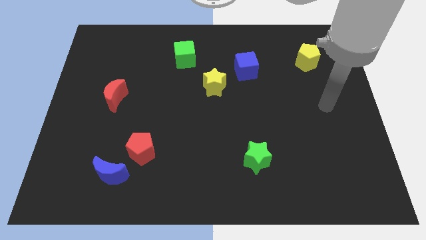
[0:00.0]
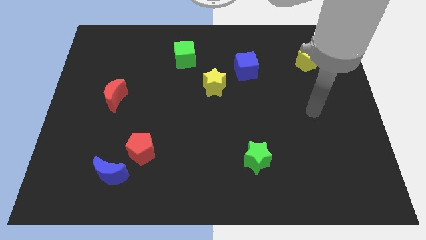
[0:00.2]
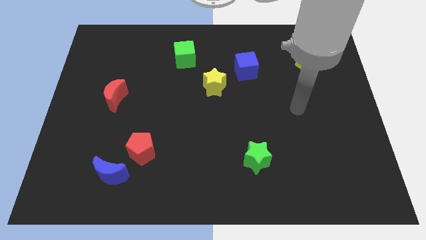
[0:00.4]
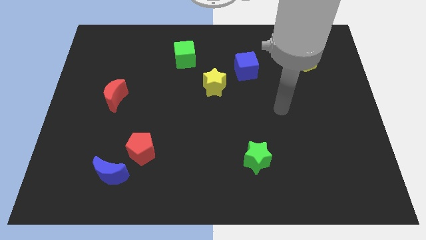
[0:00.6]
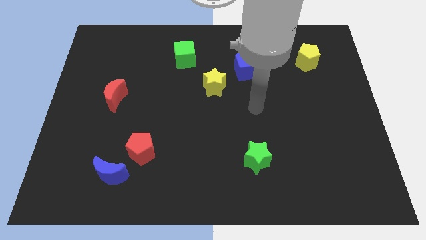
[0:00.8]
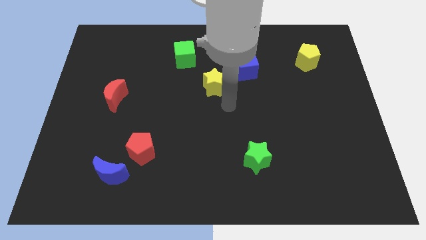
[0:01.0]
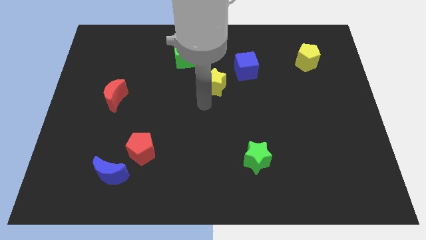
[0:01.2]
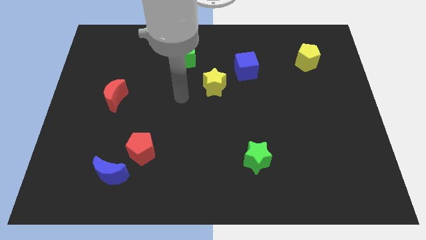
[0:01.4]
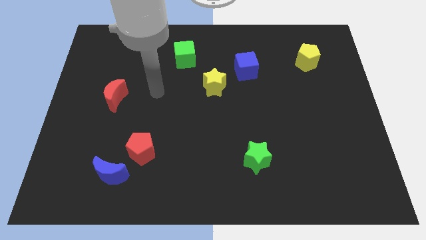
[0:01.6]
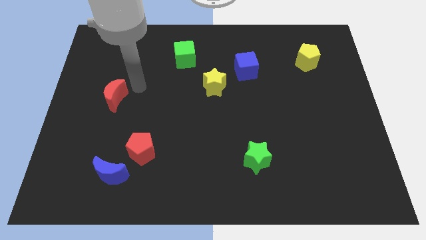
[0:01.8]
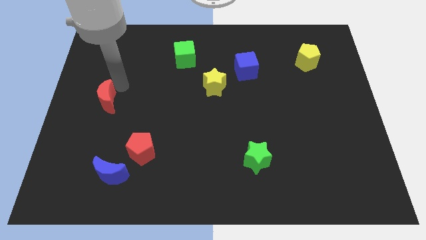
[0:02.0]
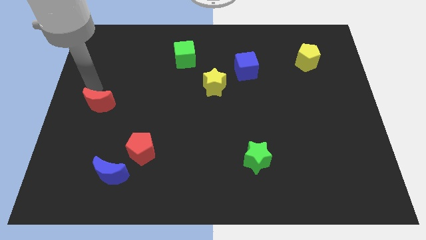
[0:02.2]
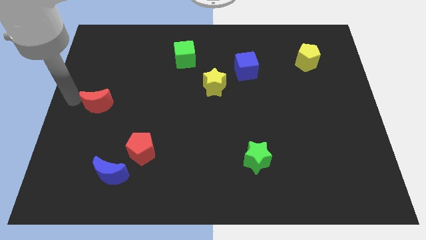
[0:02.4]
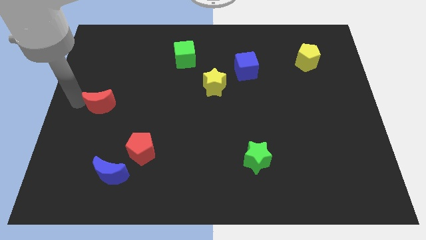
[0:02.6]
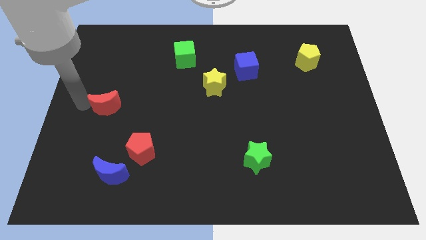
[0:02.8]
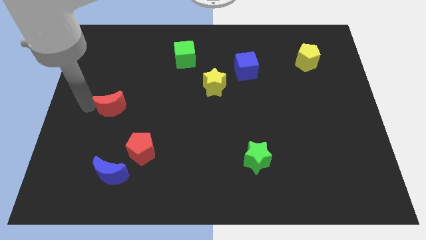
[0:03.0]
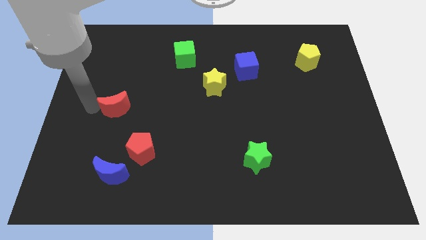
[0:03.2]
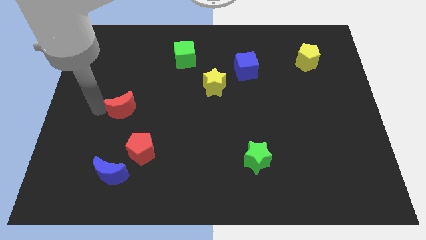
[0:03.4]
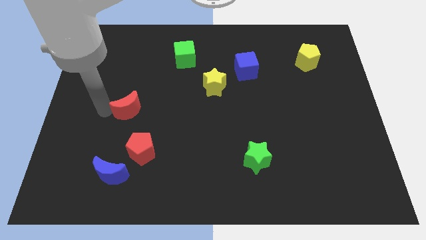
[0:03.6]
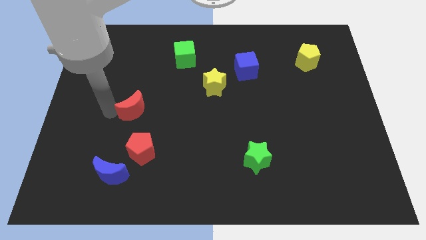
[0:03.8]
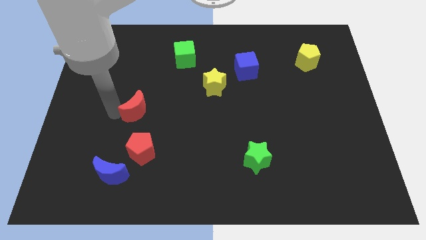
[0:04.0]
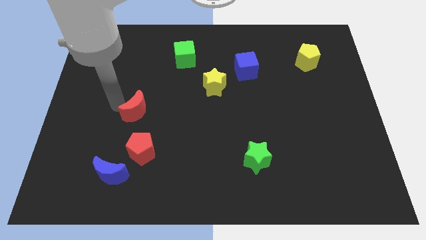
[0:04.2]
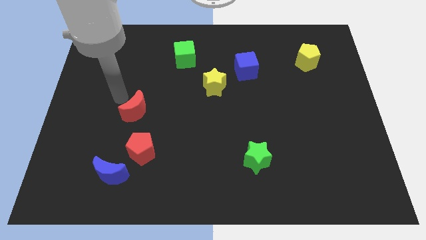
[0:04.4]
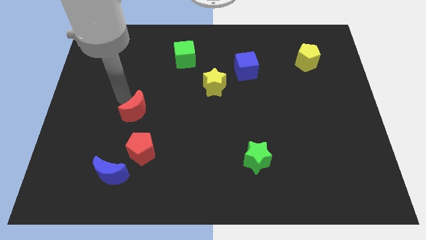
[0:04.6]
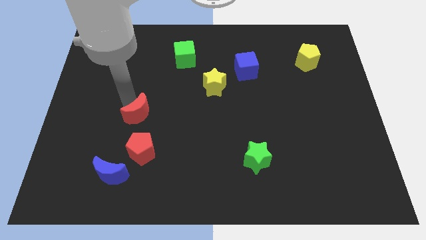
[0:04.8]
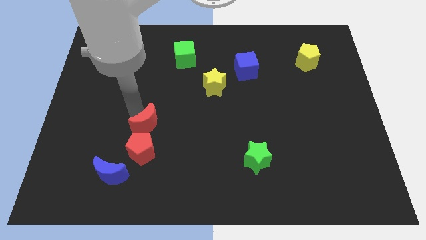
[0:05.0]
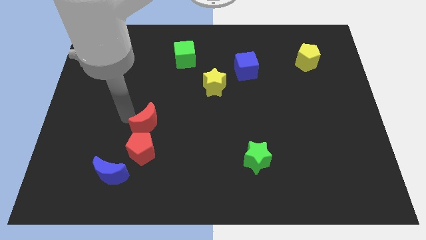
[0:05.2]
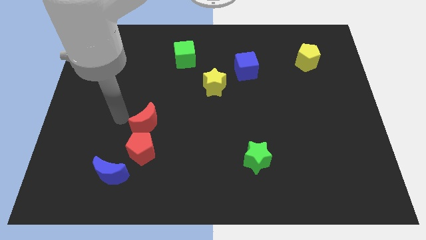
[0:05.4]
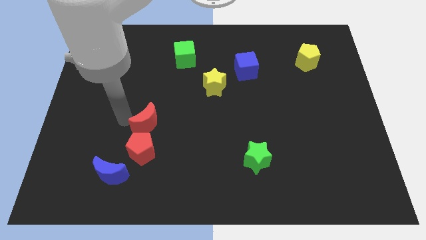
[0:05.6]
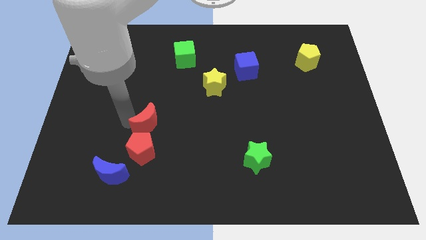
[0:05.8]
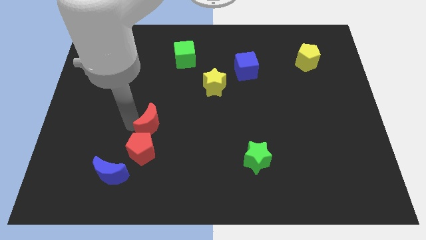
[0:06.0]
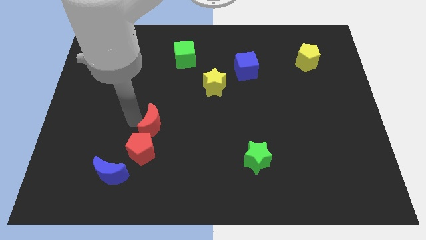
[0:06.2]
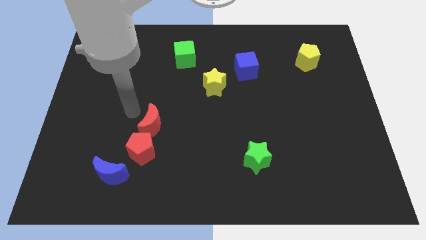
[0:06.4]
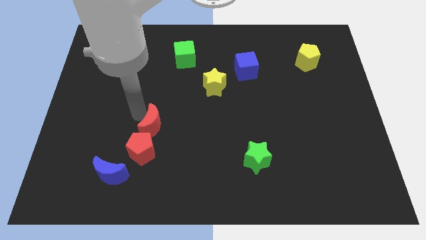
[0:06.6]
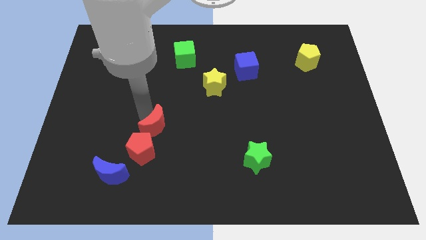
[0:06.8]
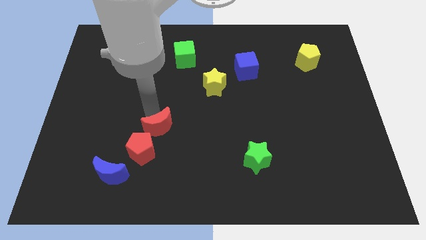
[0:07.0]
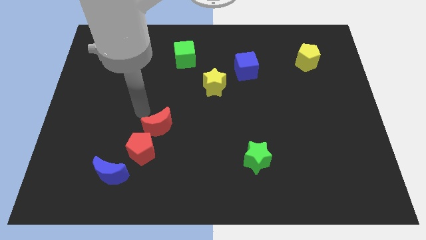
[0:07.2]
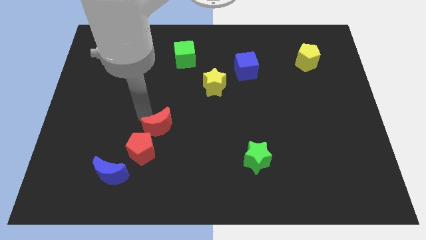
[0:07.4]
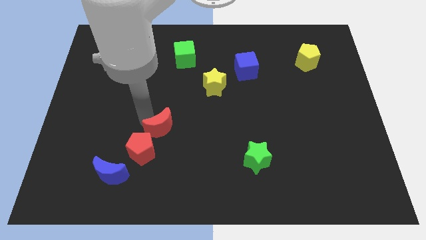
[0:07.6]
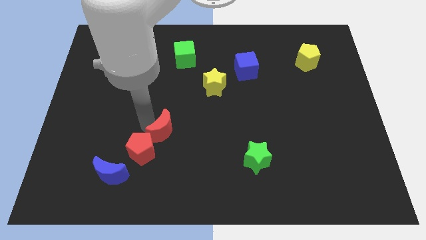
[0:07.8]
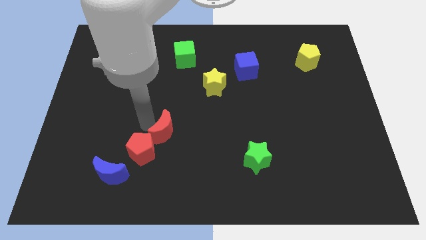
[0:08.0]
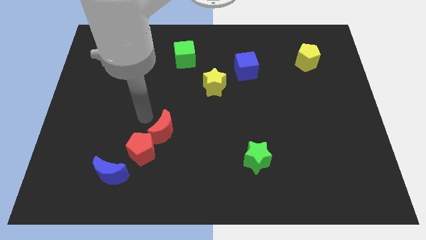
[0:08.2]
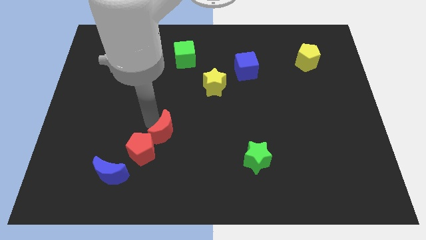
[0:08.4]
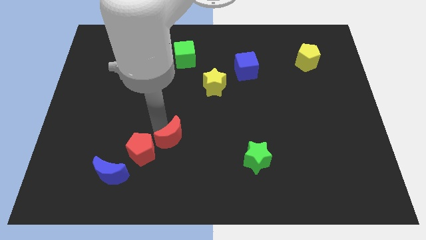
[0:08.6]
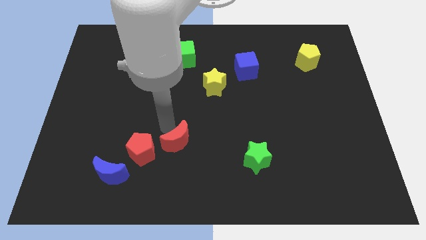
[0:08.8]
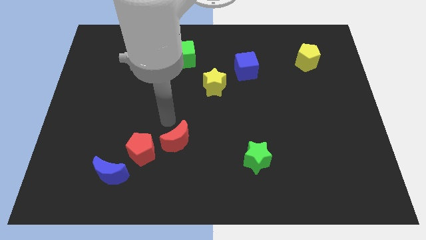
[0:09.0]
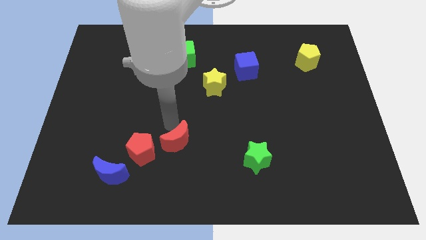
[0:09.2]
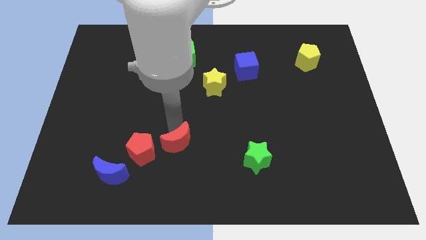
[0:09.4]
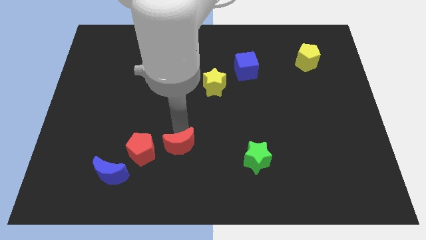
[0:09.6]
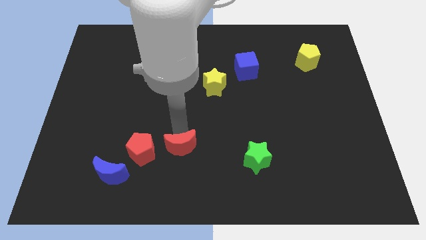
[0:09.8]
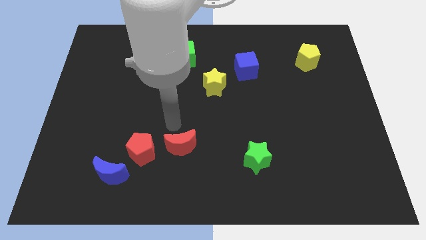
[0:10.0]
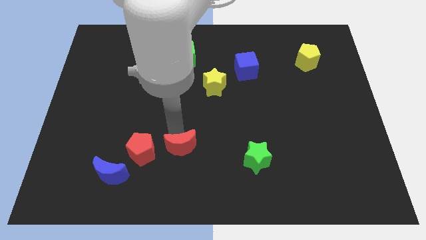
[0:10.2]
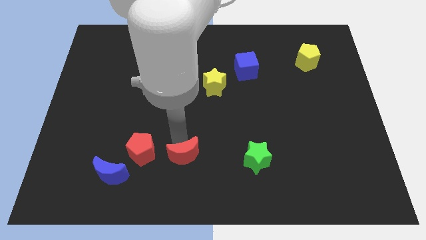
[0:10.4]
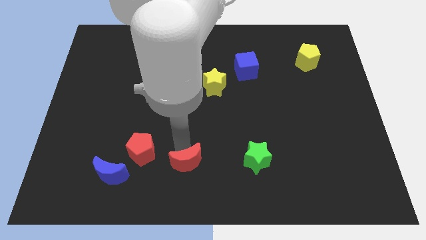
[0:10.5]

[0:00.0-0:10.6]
move the red moon to the bottom side
